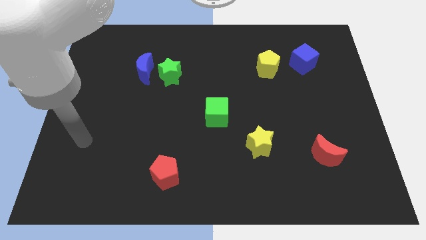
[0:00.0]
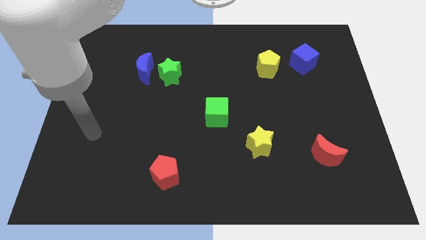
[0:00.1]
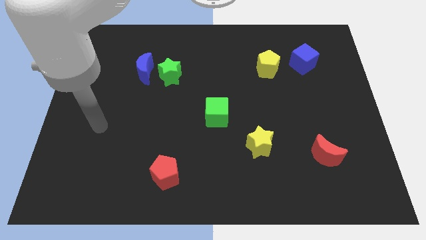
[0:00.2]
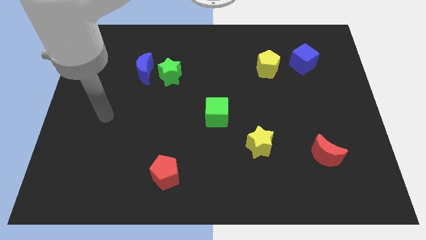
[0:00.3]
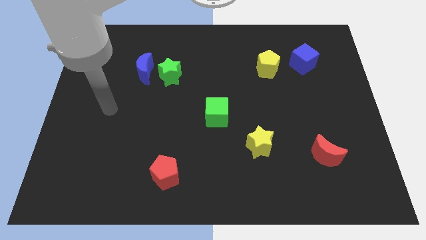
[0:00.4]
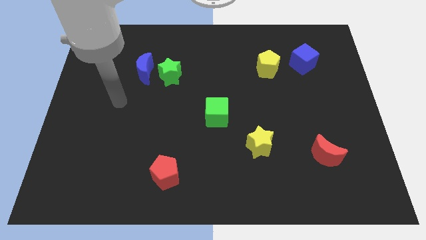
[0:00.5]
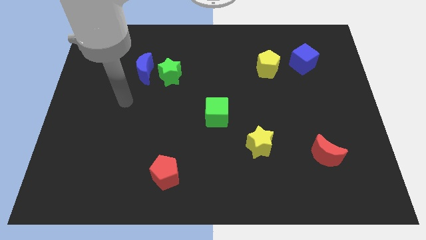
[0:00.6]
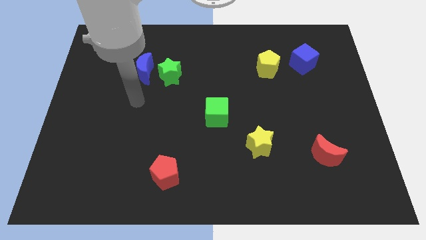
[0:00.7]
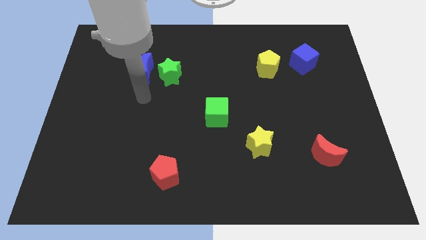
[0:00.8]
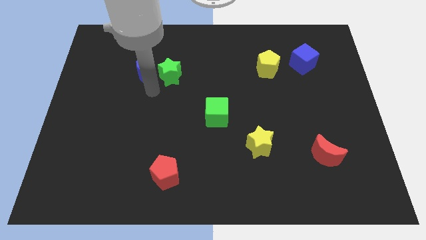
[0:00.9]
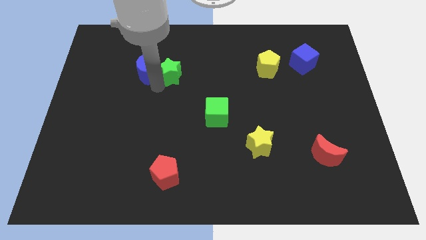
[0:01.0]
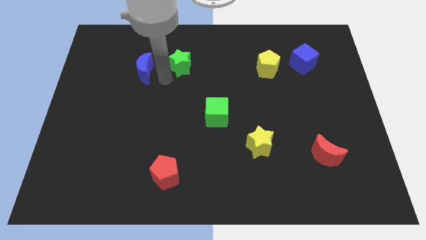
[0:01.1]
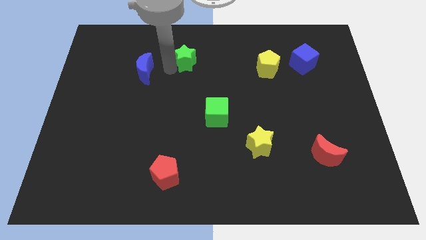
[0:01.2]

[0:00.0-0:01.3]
pull the blue moon apart from the green star

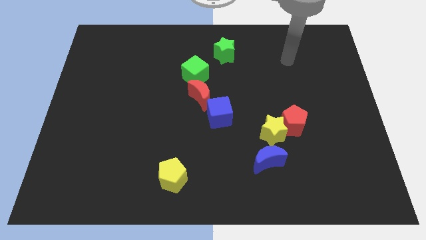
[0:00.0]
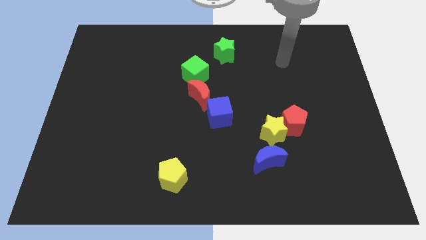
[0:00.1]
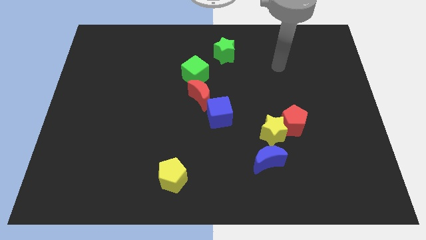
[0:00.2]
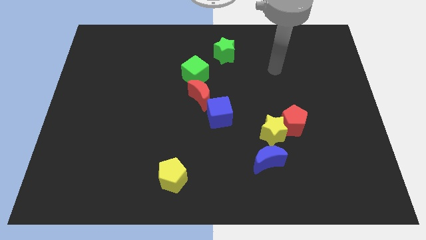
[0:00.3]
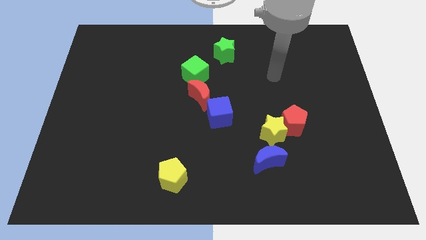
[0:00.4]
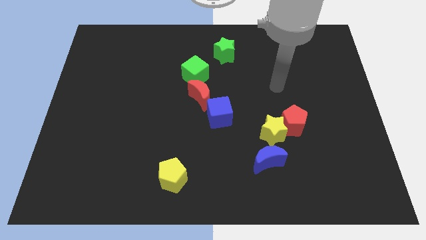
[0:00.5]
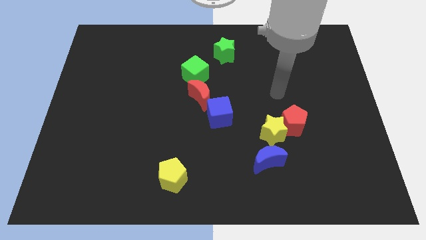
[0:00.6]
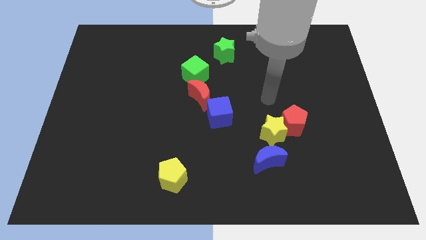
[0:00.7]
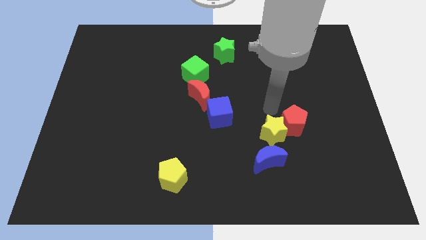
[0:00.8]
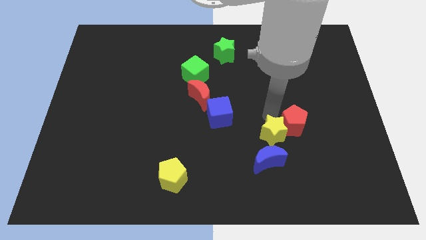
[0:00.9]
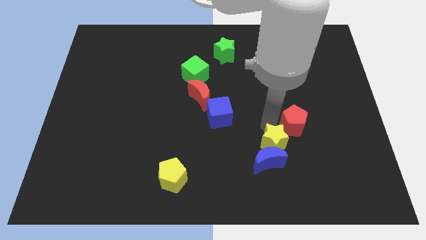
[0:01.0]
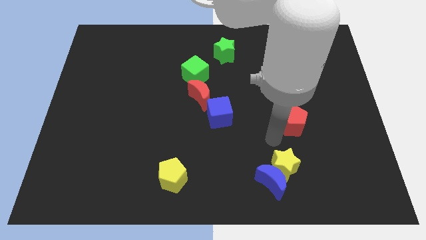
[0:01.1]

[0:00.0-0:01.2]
move the red pentagon away from the yellow star

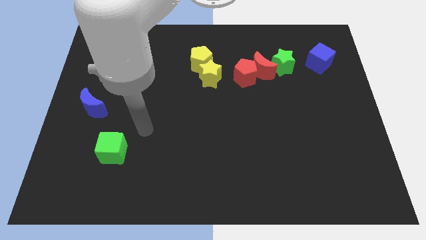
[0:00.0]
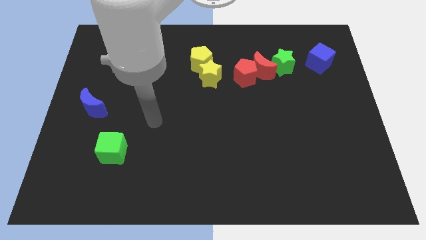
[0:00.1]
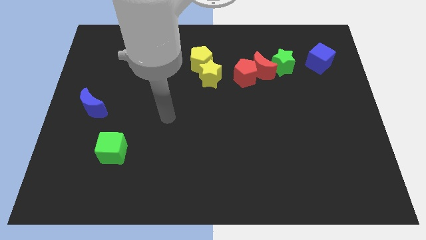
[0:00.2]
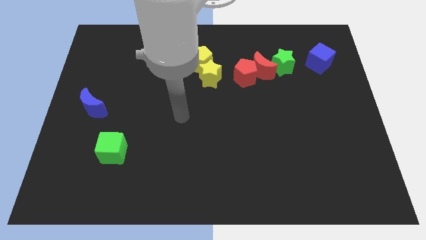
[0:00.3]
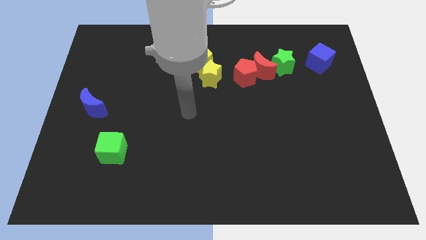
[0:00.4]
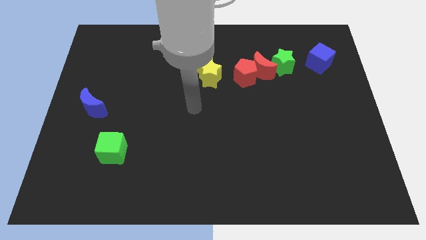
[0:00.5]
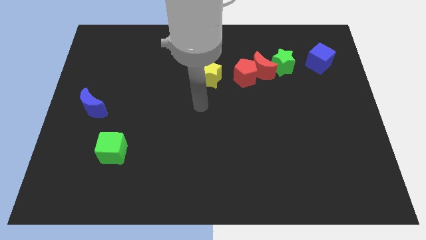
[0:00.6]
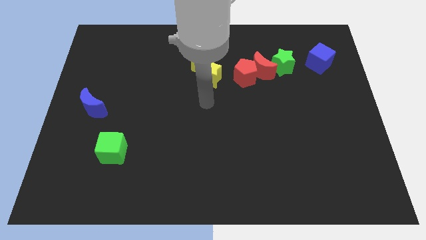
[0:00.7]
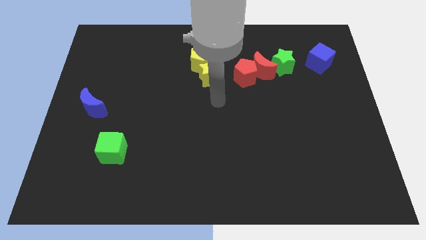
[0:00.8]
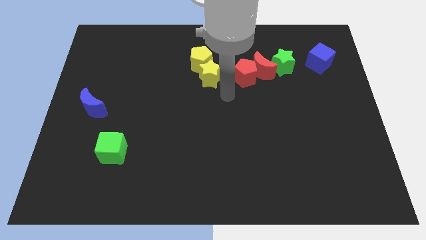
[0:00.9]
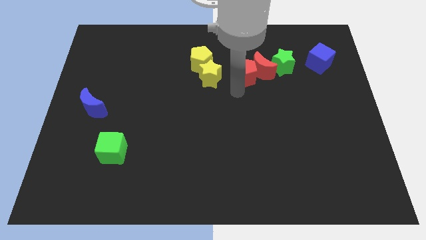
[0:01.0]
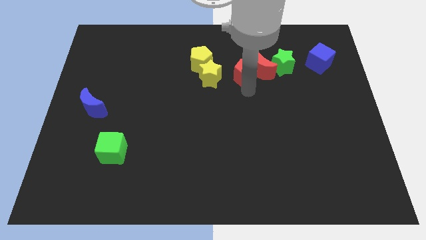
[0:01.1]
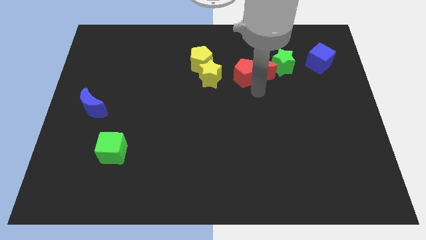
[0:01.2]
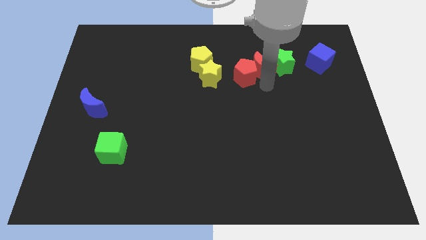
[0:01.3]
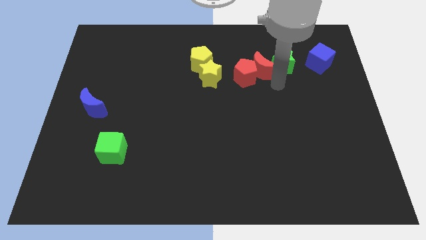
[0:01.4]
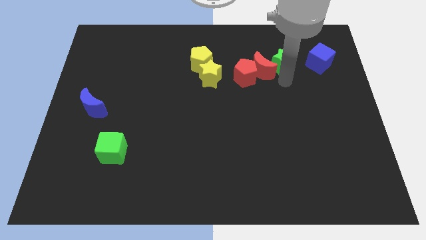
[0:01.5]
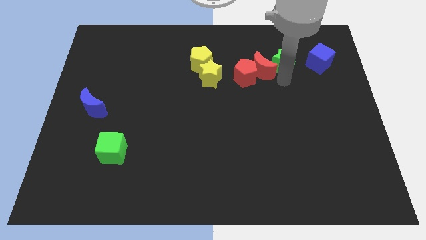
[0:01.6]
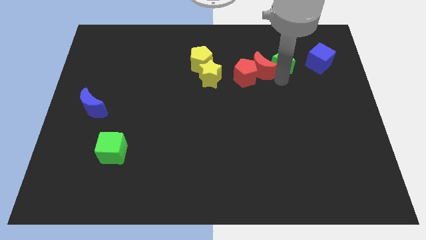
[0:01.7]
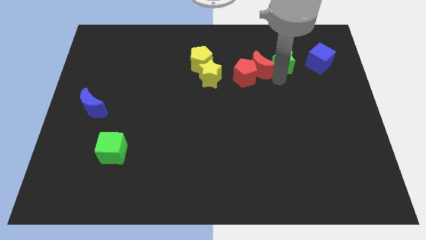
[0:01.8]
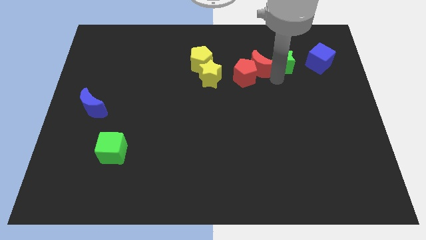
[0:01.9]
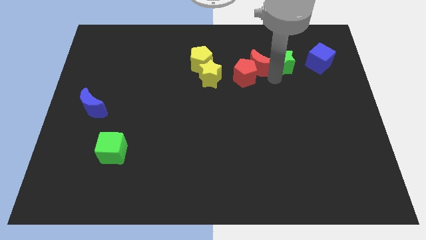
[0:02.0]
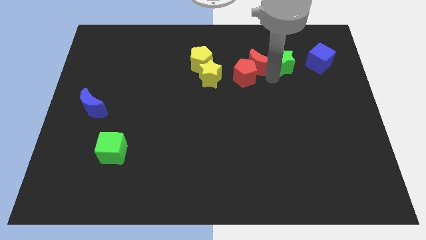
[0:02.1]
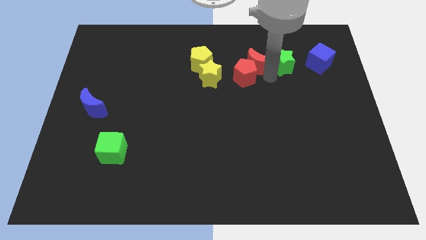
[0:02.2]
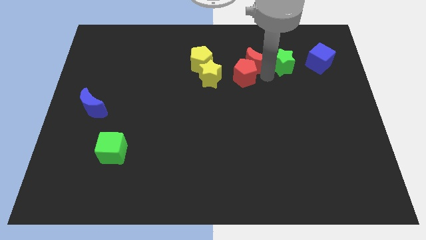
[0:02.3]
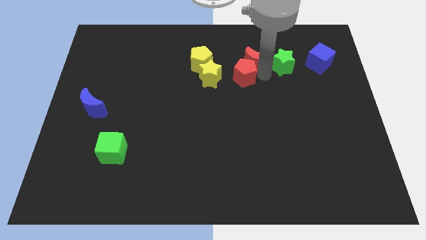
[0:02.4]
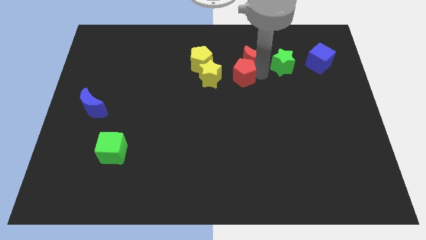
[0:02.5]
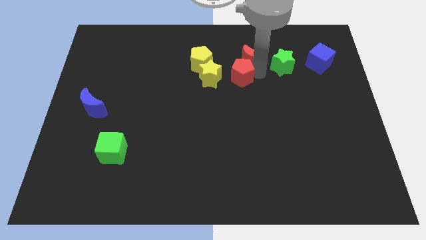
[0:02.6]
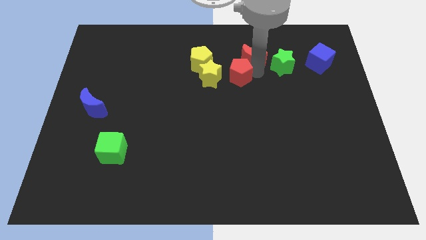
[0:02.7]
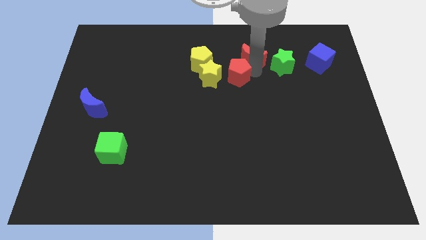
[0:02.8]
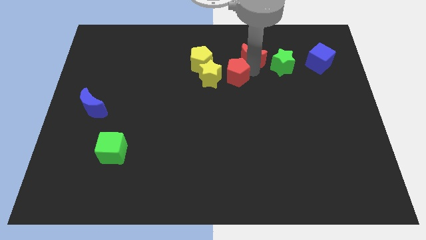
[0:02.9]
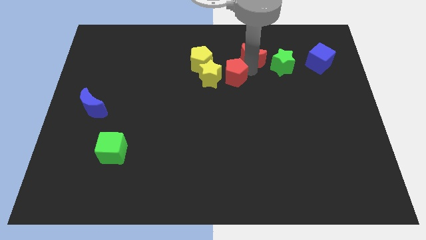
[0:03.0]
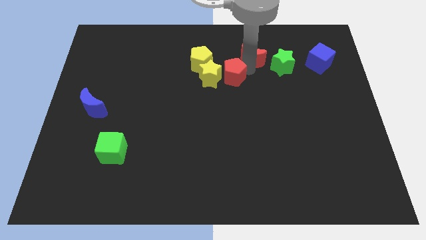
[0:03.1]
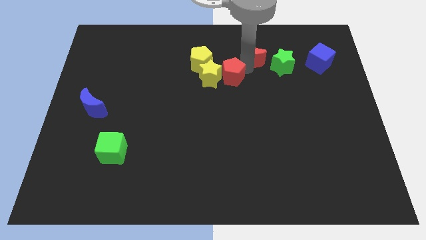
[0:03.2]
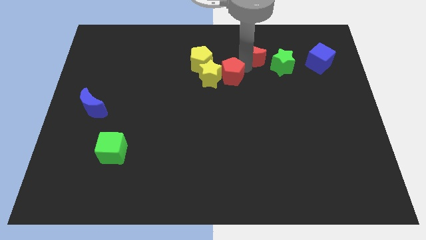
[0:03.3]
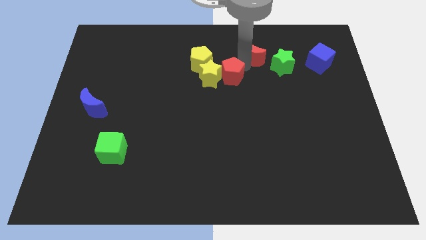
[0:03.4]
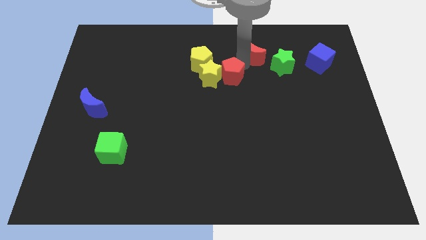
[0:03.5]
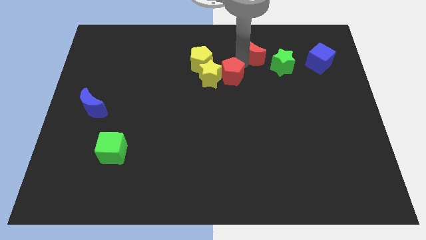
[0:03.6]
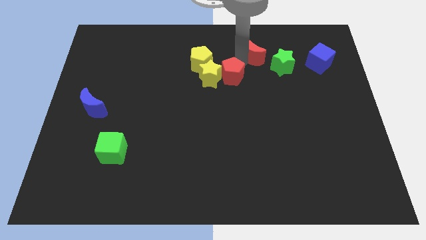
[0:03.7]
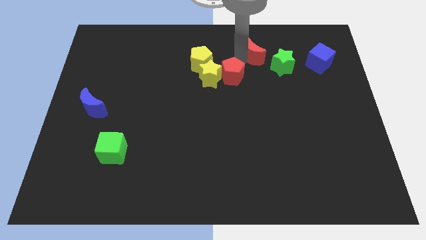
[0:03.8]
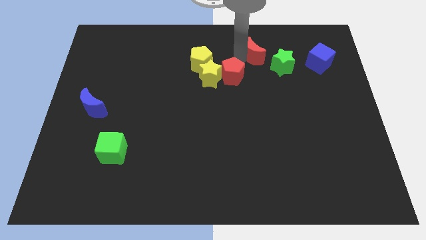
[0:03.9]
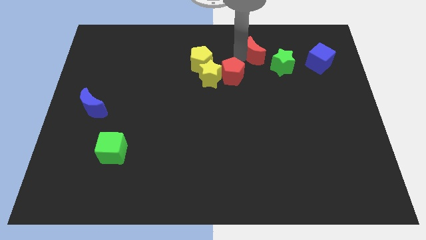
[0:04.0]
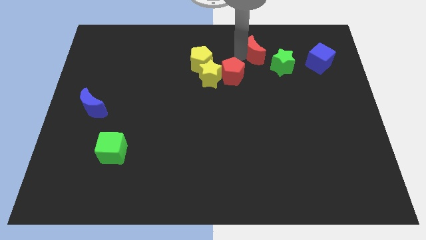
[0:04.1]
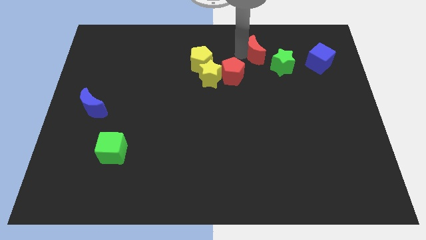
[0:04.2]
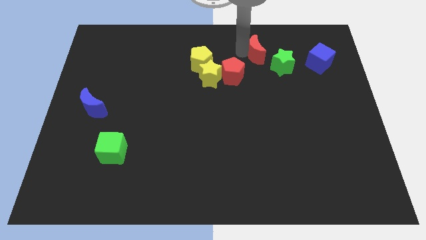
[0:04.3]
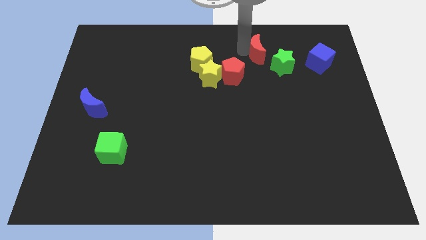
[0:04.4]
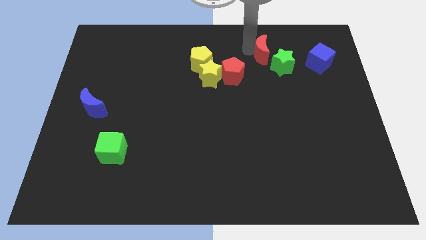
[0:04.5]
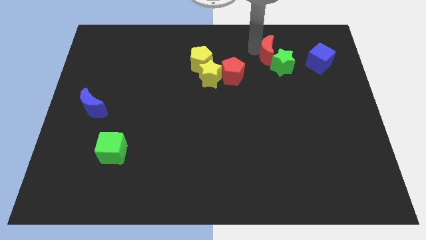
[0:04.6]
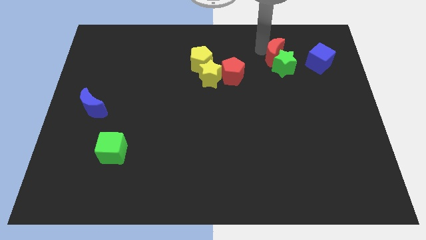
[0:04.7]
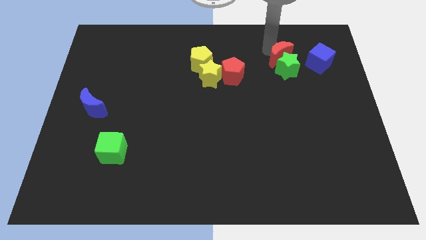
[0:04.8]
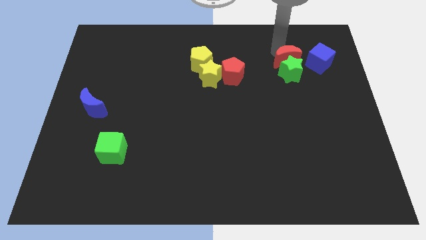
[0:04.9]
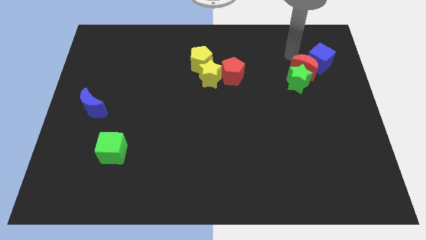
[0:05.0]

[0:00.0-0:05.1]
separate the red moon from the red pentagon and green star

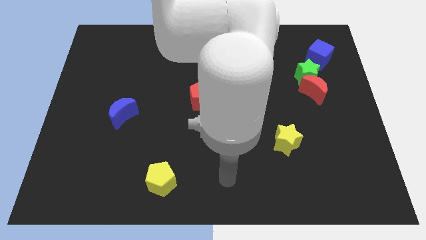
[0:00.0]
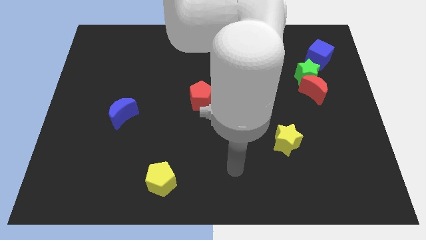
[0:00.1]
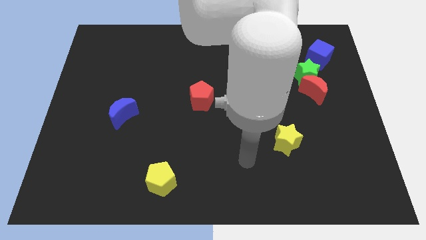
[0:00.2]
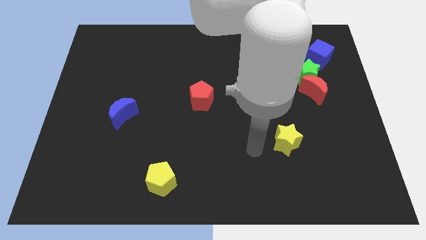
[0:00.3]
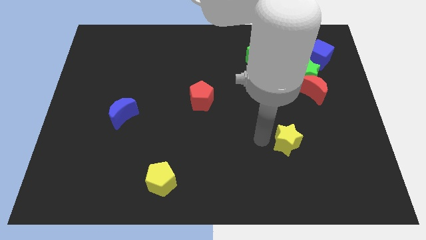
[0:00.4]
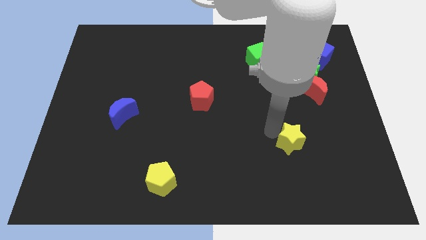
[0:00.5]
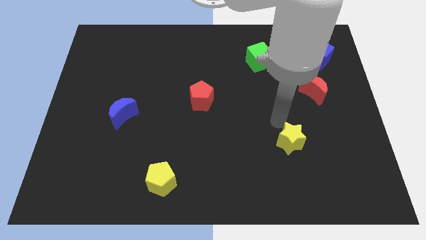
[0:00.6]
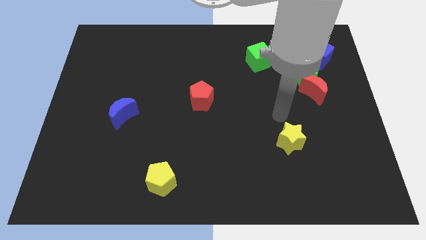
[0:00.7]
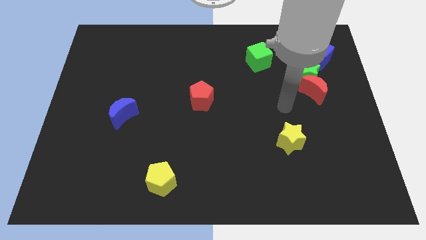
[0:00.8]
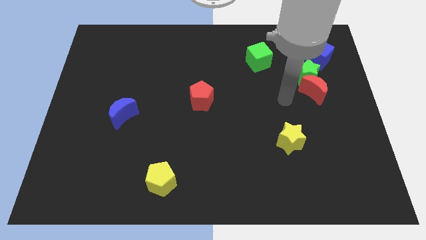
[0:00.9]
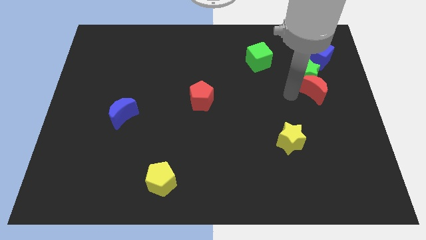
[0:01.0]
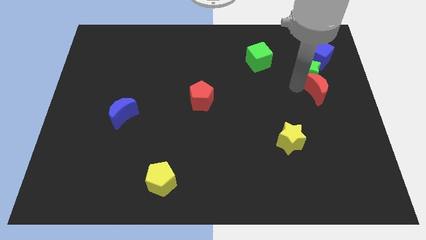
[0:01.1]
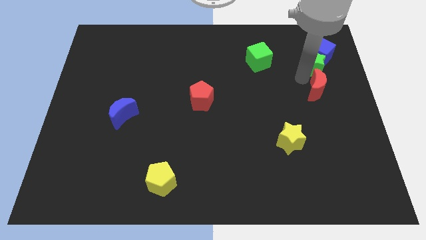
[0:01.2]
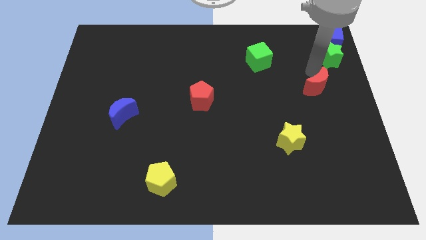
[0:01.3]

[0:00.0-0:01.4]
move the red moon away from the green star

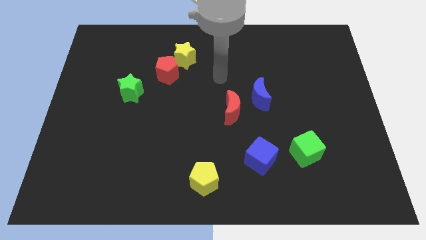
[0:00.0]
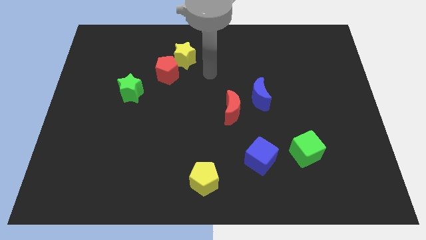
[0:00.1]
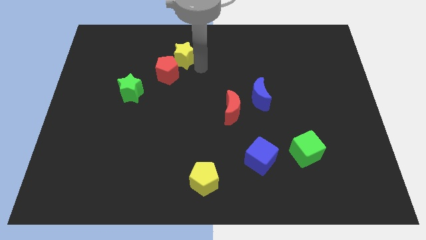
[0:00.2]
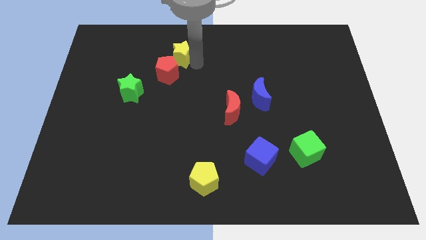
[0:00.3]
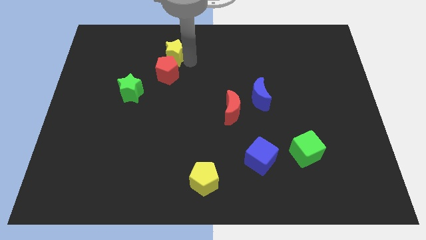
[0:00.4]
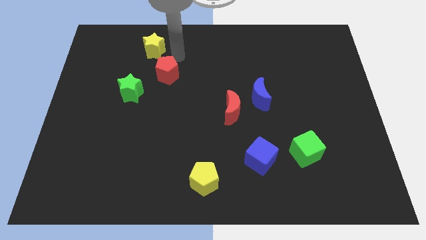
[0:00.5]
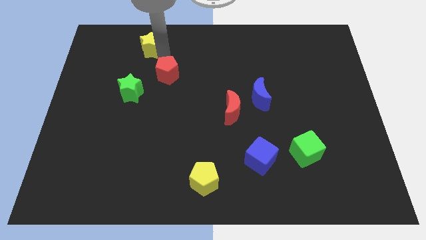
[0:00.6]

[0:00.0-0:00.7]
separate the red pentagon from the yellow star
